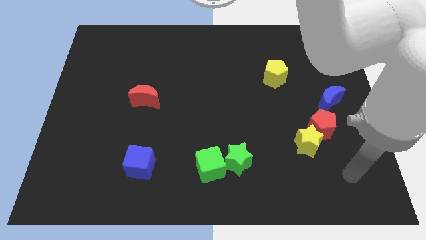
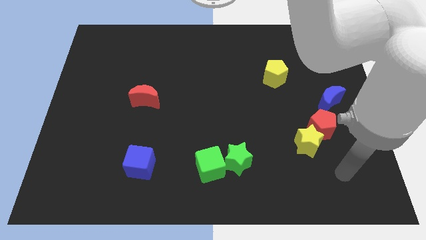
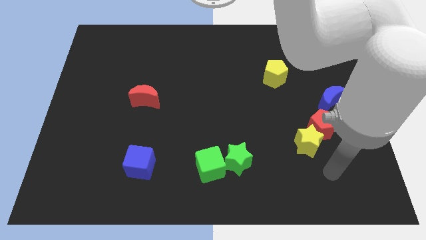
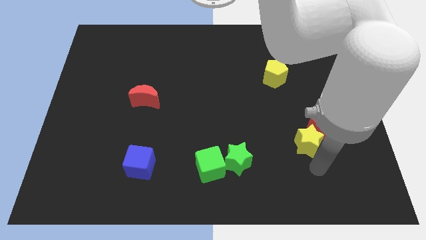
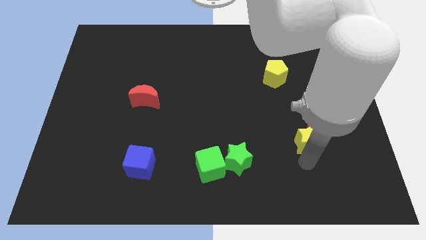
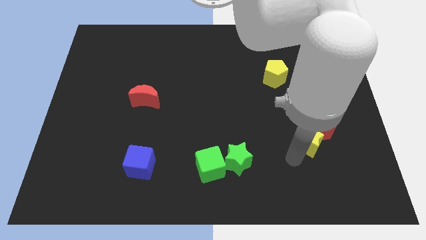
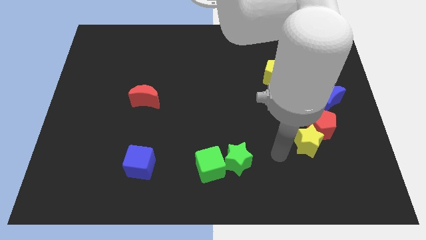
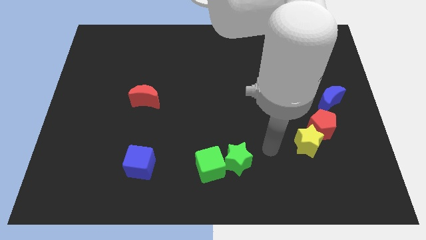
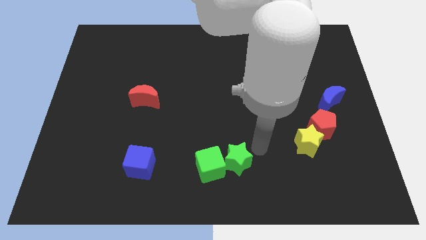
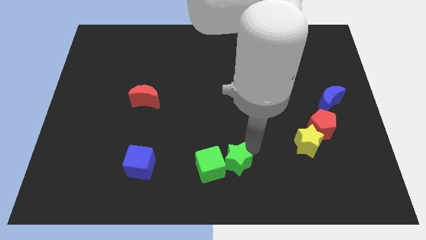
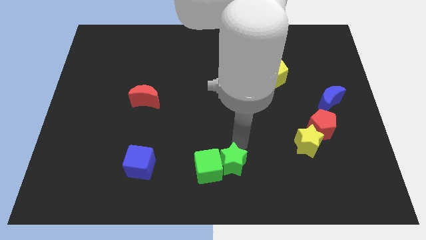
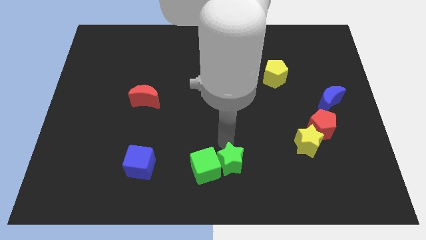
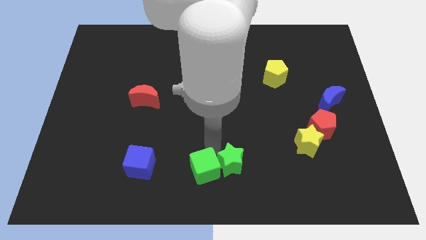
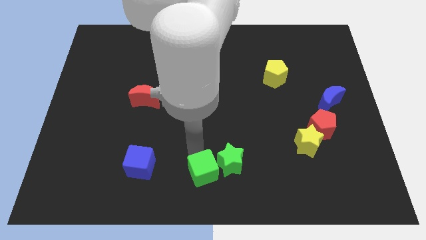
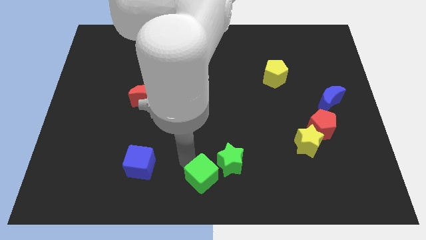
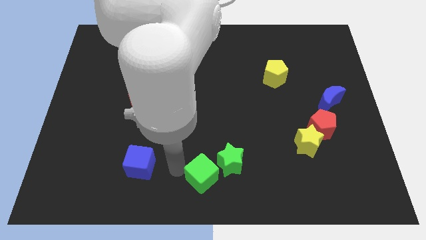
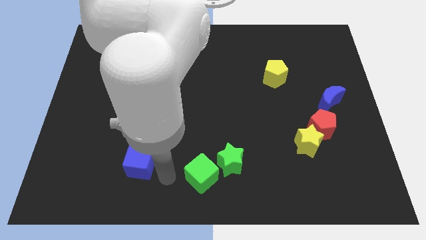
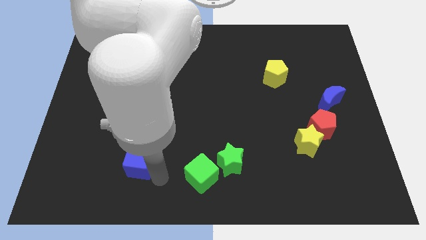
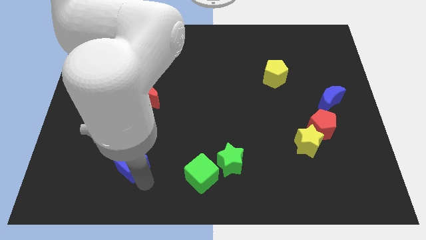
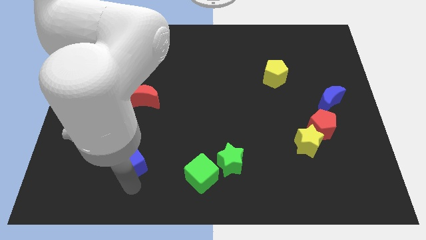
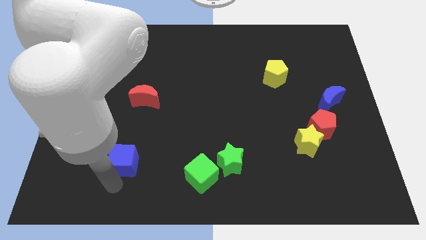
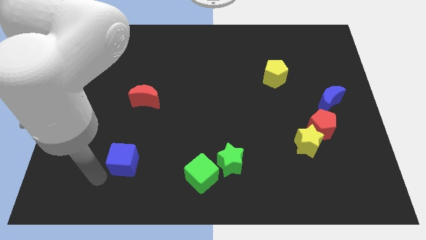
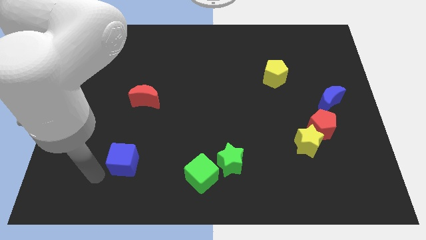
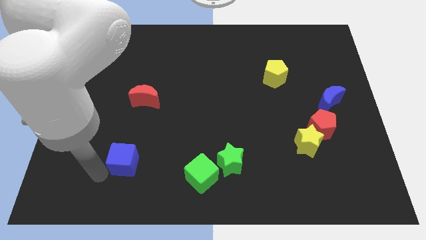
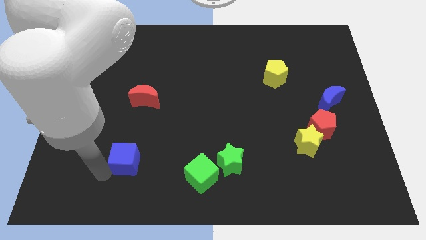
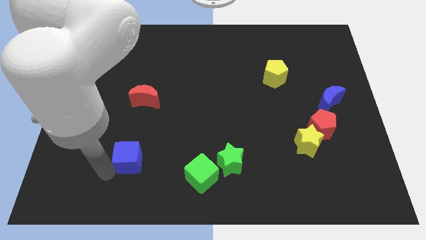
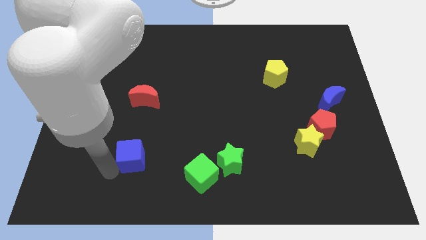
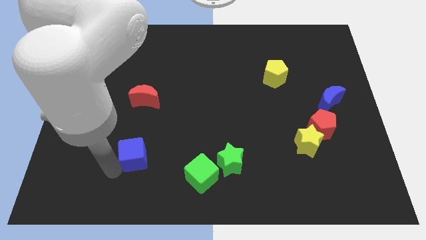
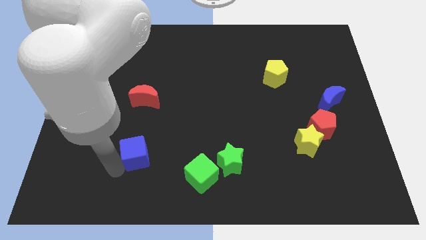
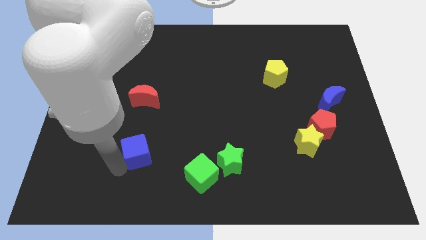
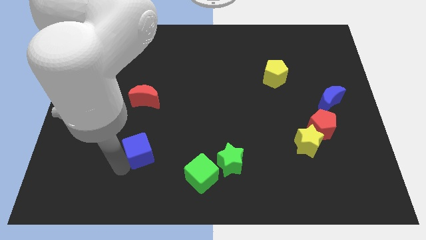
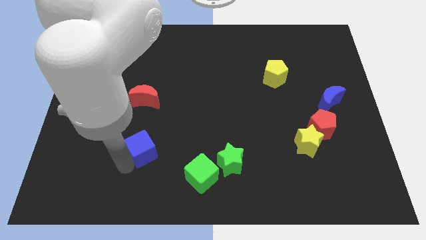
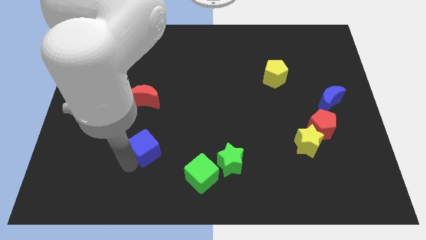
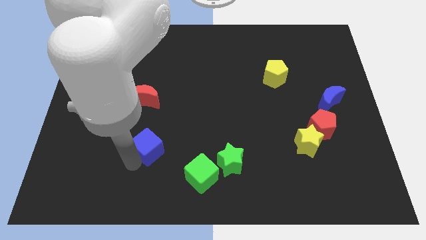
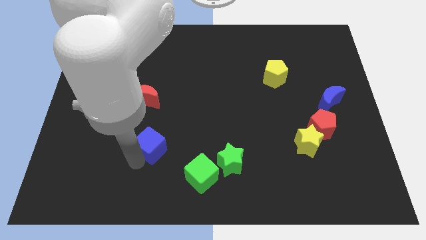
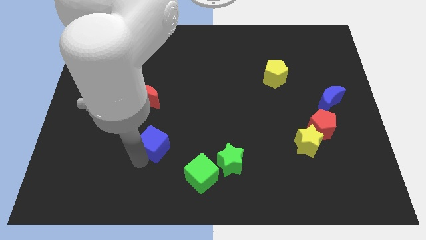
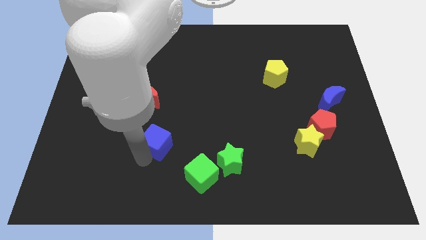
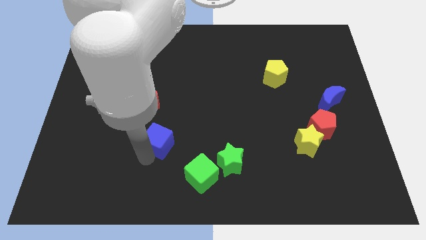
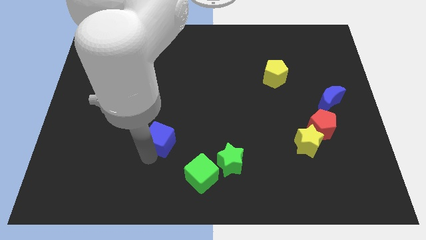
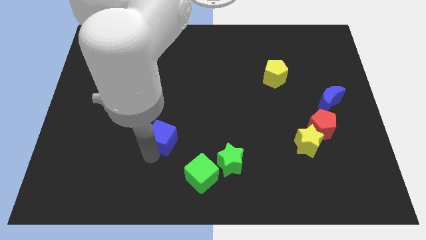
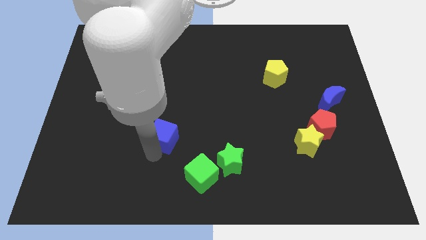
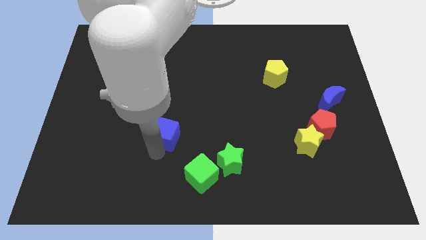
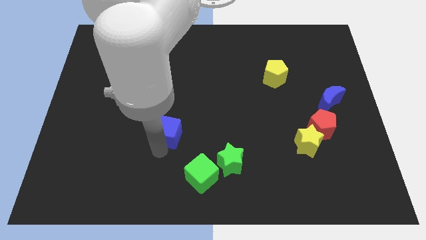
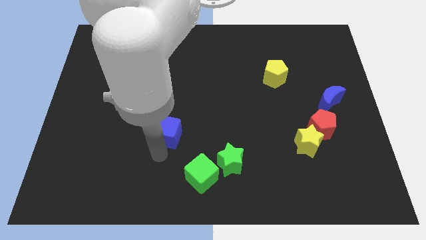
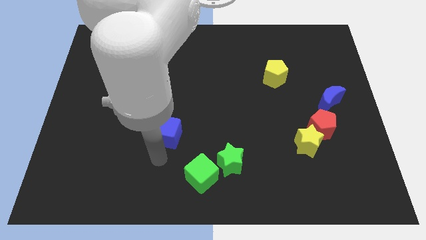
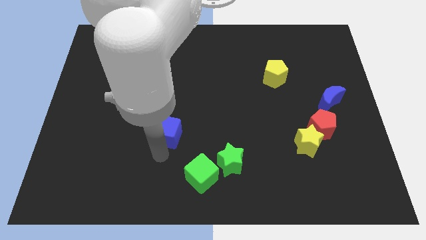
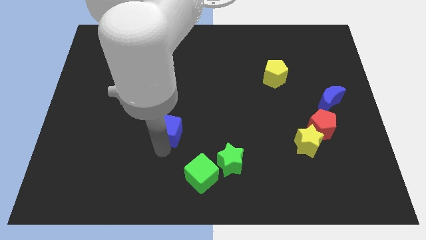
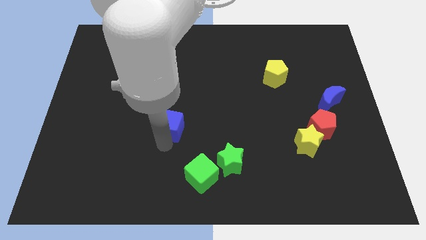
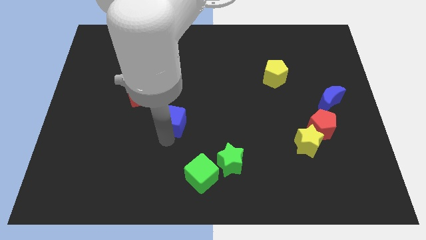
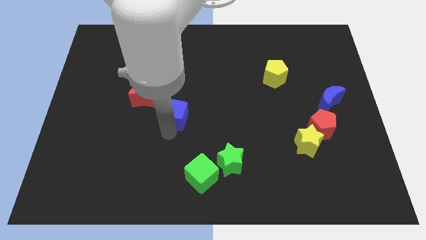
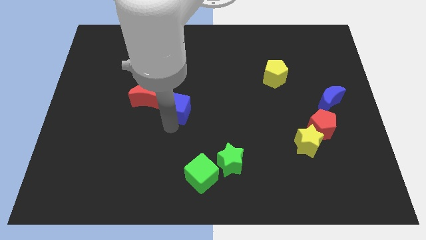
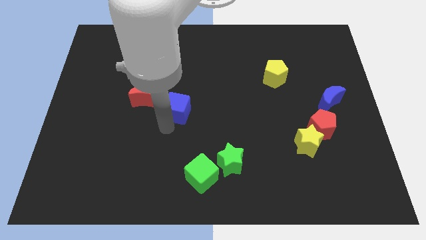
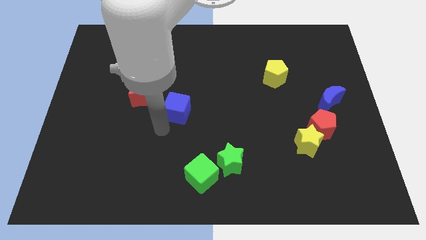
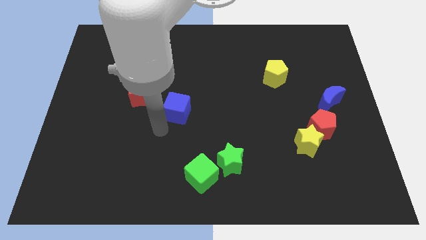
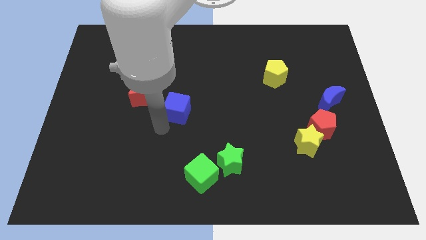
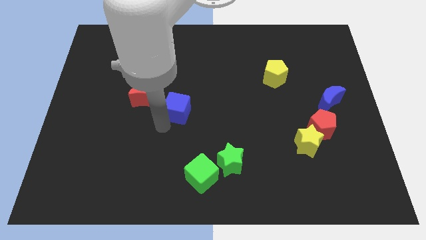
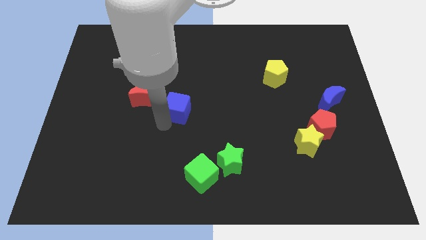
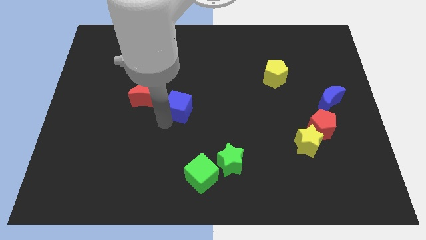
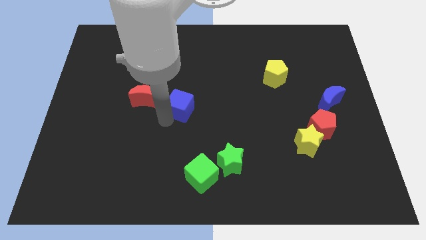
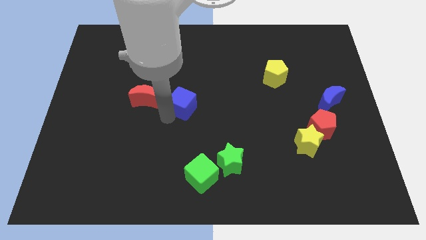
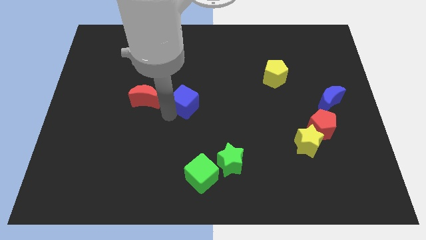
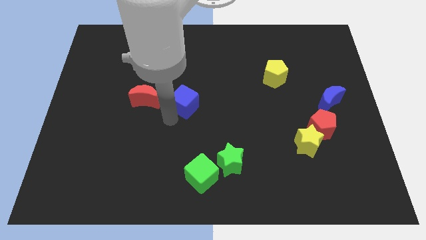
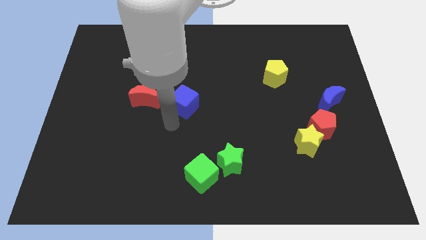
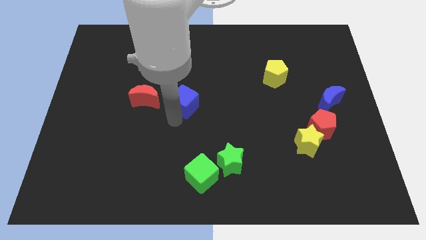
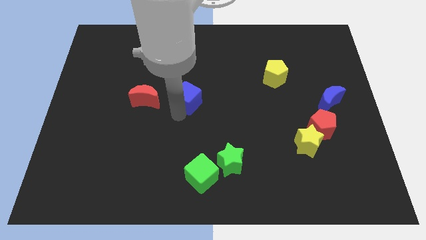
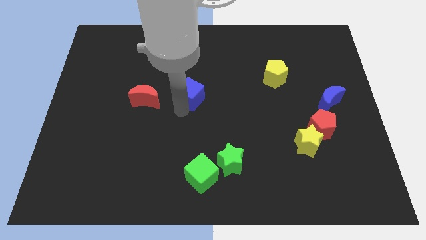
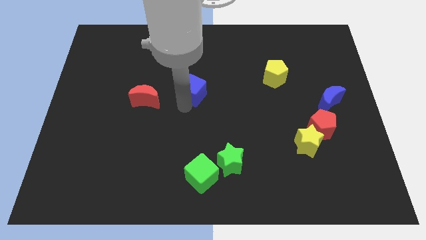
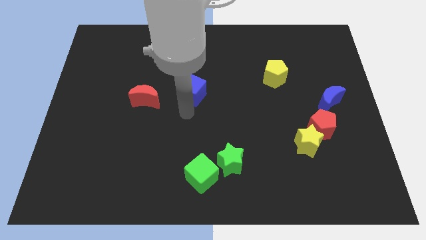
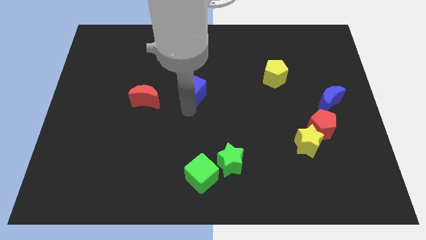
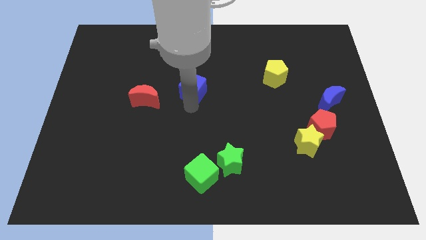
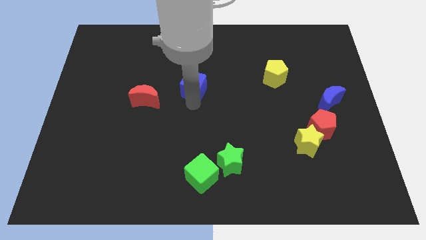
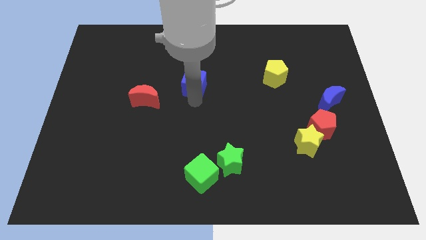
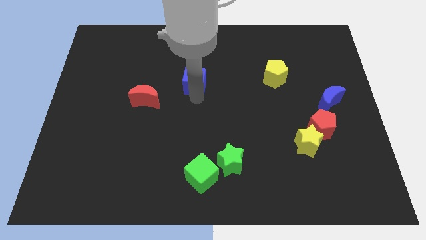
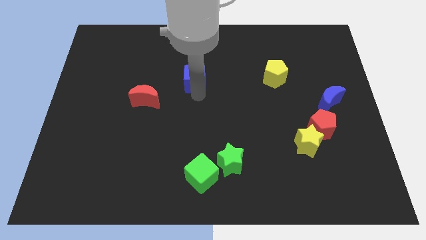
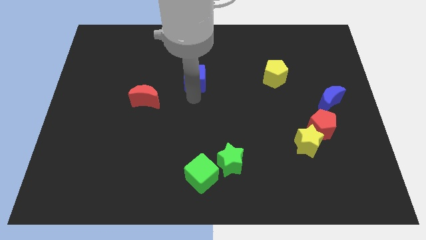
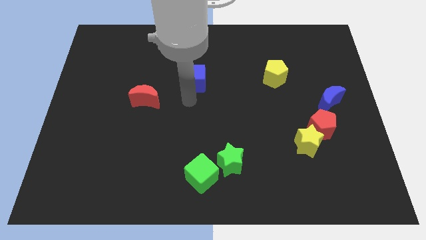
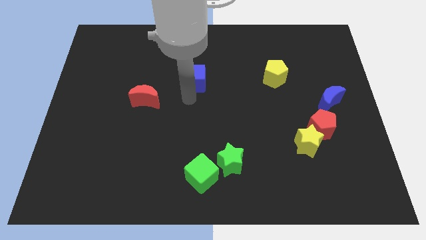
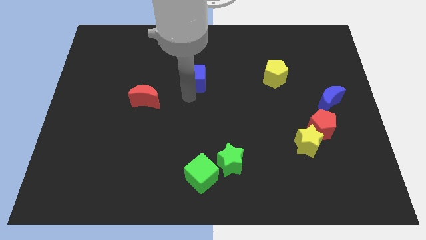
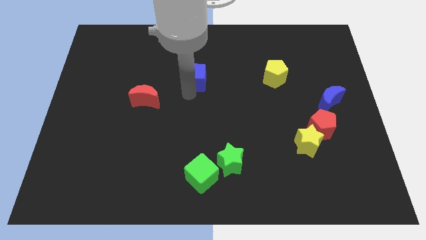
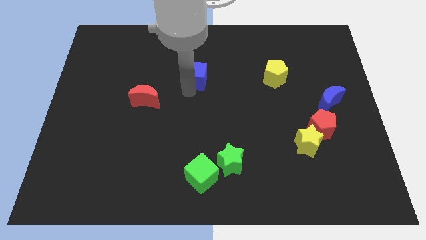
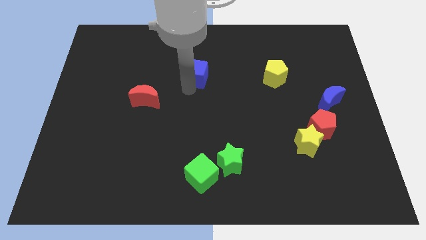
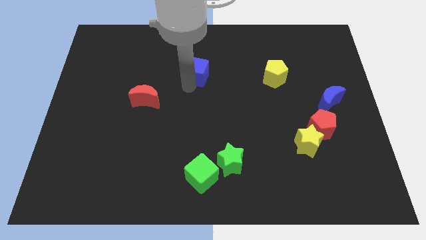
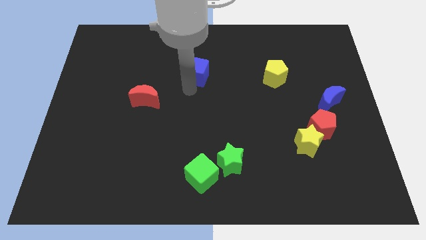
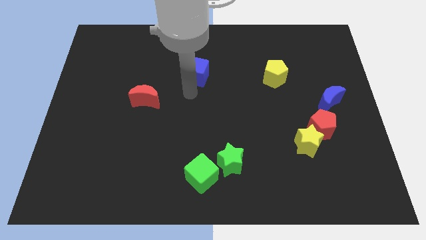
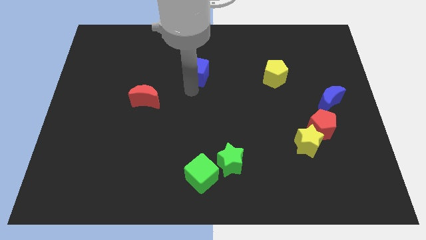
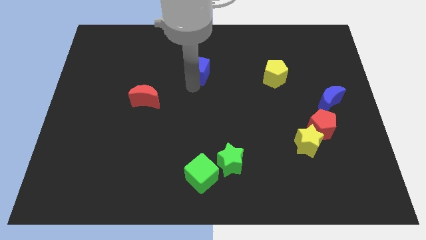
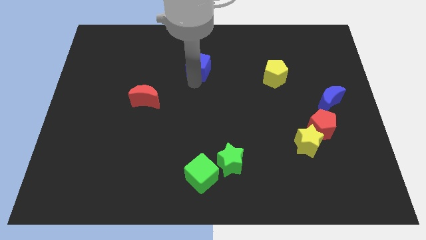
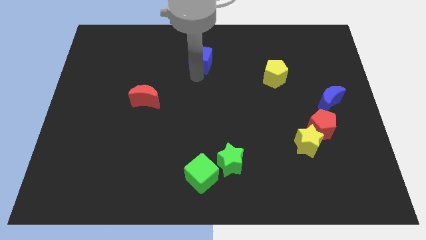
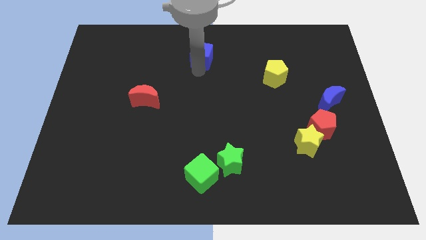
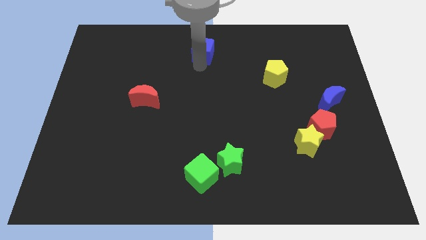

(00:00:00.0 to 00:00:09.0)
slide the blue cube to the top side
